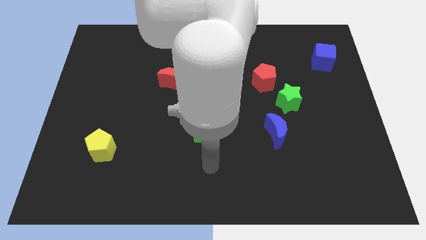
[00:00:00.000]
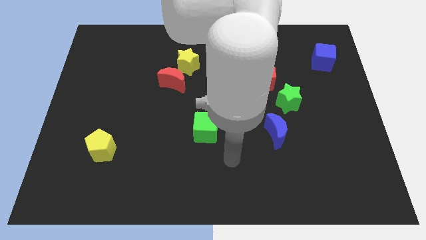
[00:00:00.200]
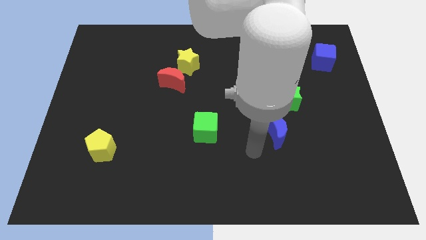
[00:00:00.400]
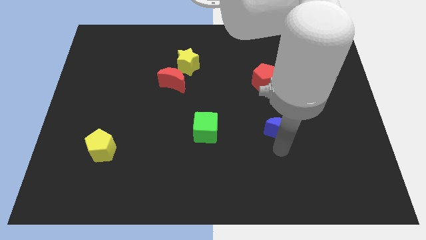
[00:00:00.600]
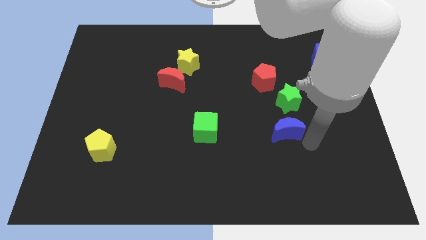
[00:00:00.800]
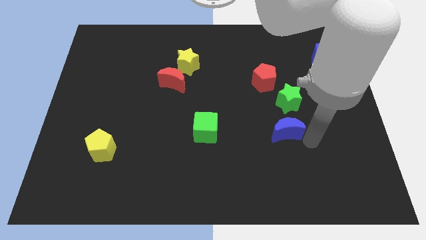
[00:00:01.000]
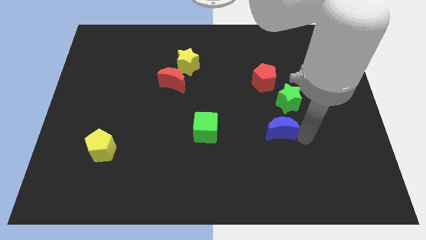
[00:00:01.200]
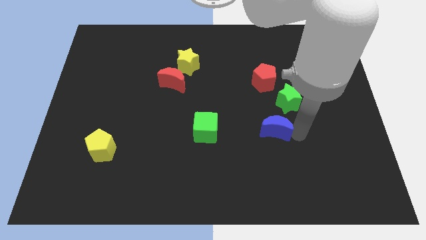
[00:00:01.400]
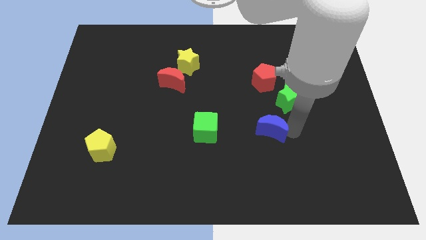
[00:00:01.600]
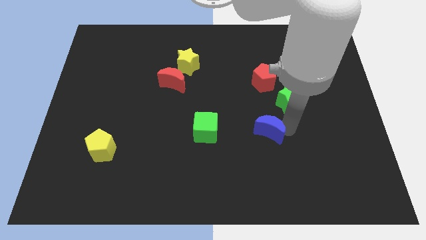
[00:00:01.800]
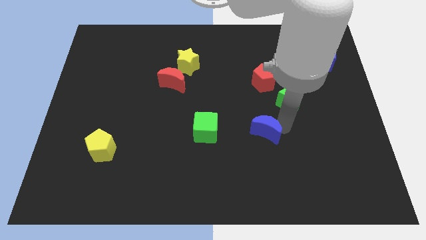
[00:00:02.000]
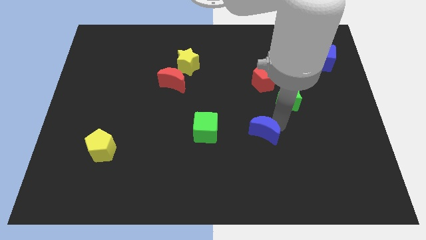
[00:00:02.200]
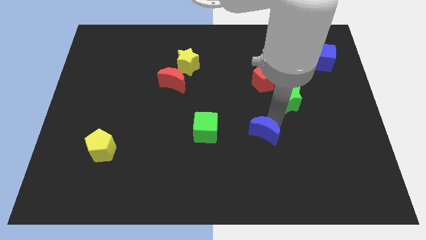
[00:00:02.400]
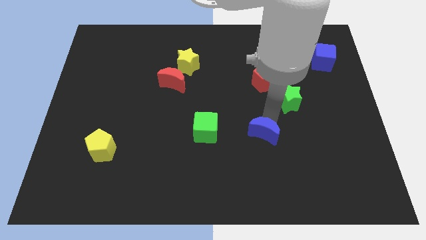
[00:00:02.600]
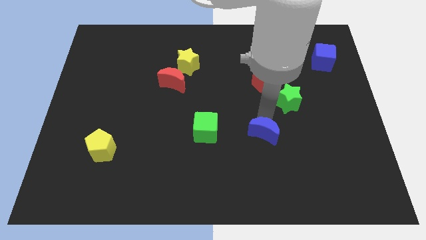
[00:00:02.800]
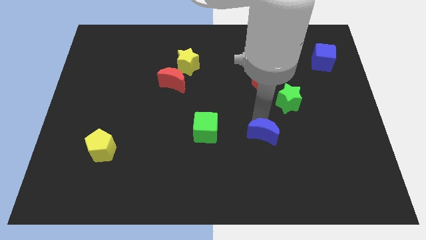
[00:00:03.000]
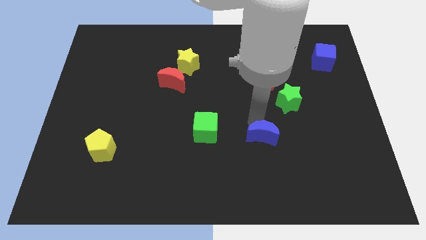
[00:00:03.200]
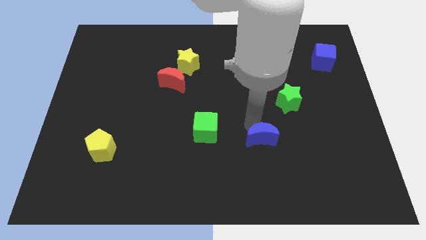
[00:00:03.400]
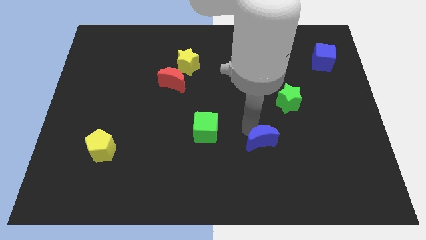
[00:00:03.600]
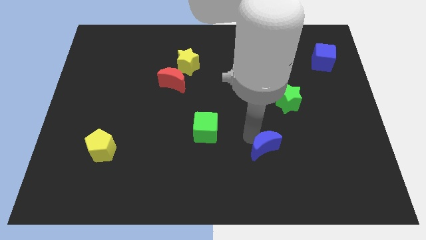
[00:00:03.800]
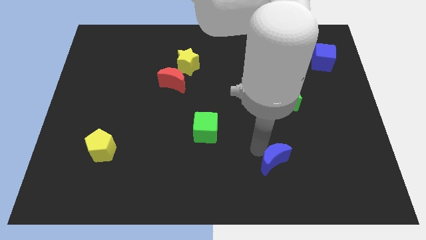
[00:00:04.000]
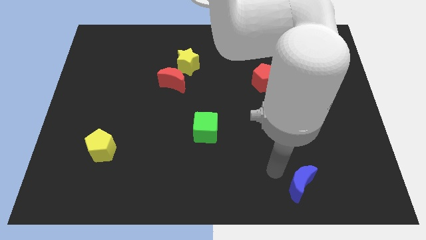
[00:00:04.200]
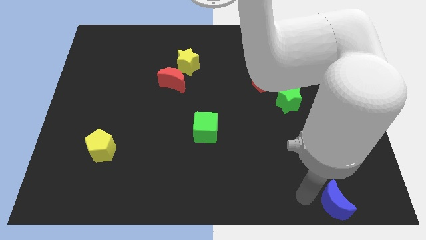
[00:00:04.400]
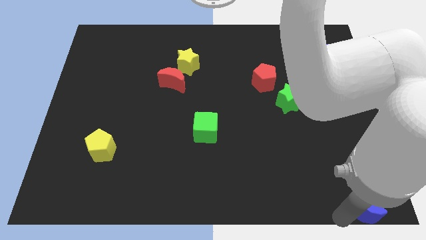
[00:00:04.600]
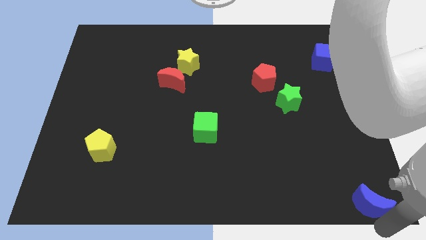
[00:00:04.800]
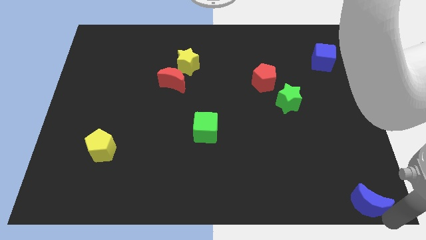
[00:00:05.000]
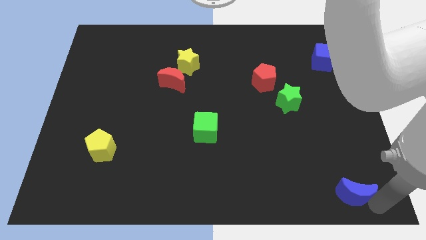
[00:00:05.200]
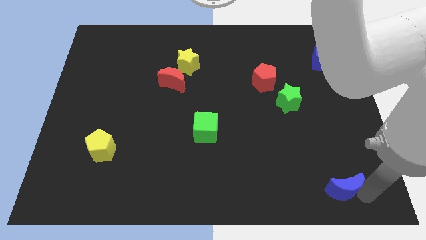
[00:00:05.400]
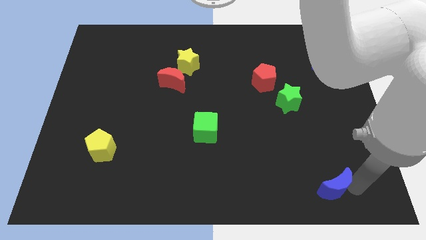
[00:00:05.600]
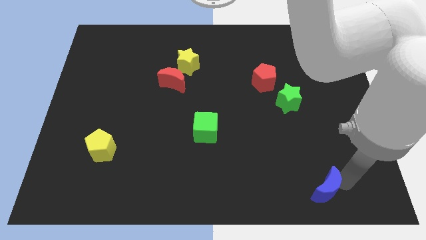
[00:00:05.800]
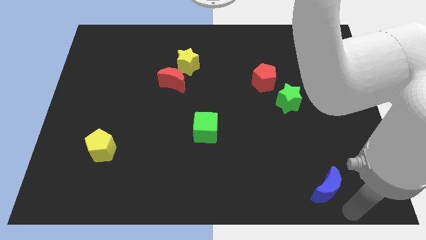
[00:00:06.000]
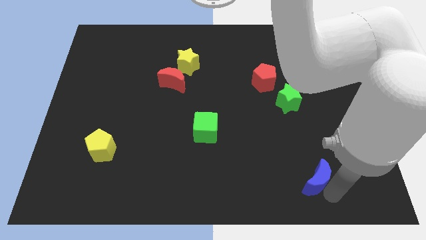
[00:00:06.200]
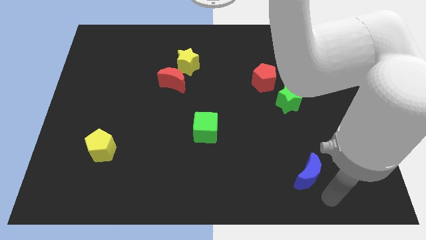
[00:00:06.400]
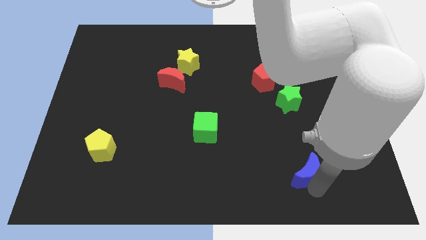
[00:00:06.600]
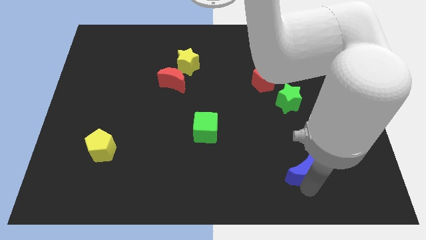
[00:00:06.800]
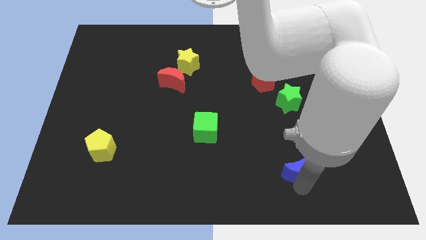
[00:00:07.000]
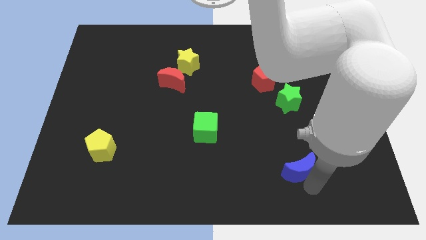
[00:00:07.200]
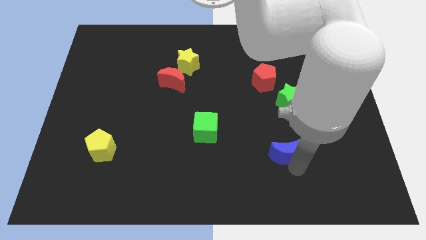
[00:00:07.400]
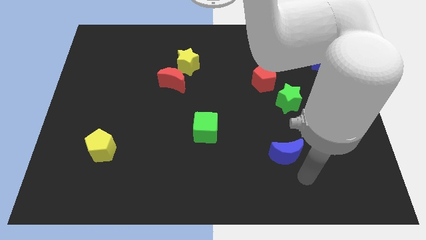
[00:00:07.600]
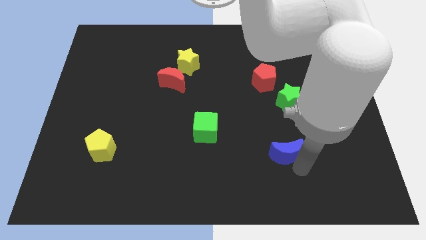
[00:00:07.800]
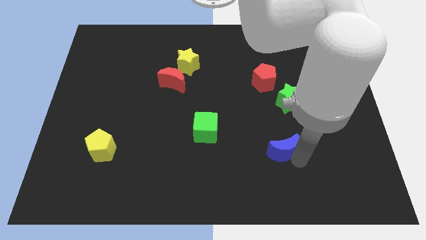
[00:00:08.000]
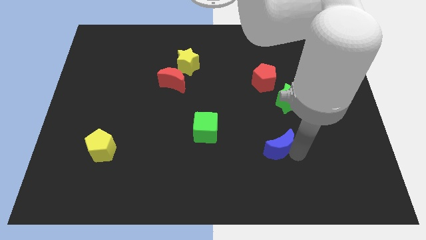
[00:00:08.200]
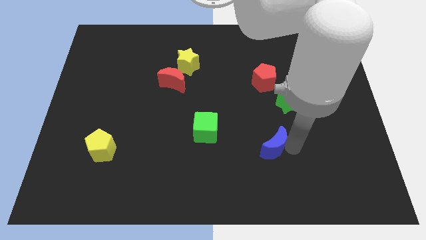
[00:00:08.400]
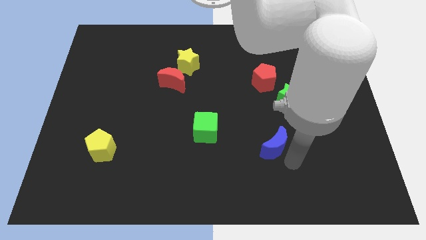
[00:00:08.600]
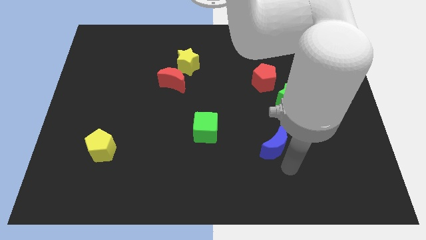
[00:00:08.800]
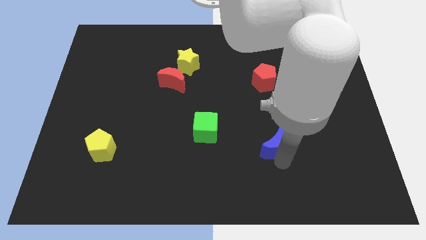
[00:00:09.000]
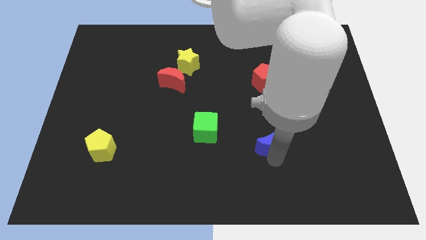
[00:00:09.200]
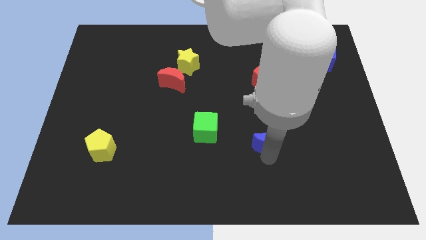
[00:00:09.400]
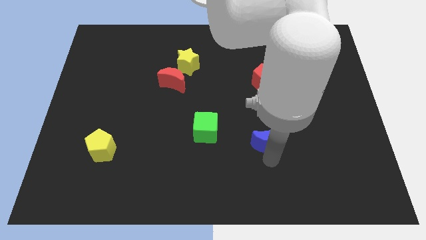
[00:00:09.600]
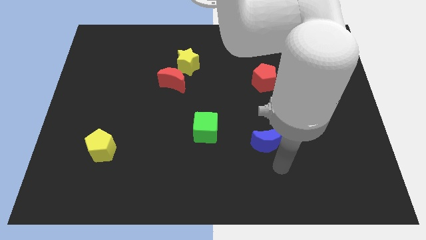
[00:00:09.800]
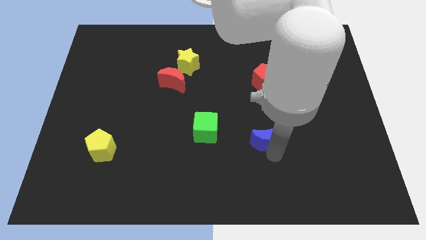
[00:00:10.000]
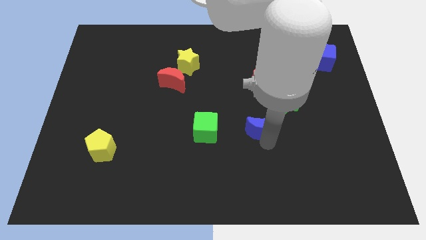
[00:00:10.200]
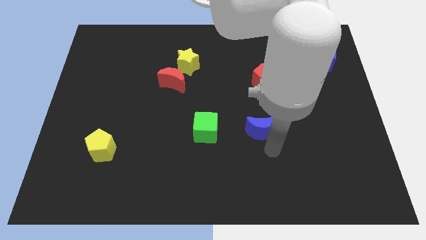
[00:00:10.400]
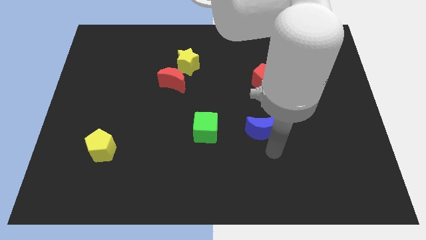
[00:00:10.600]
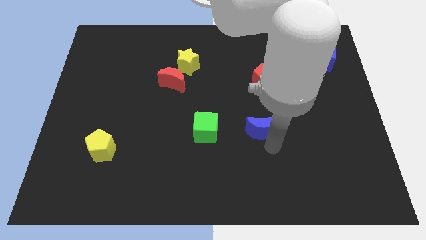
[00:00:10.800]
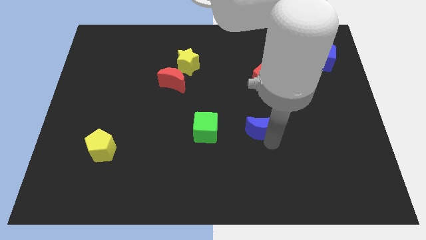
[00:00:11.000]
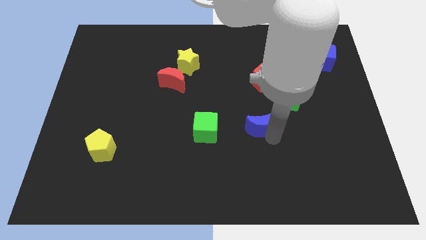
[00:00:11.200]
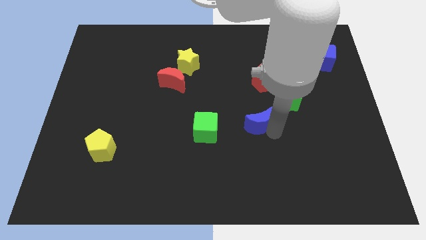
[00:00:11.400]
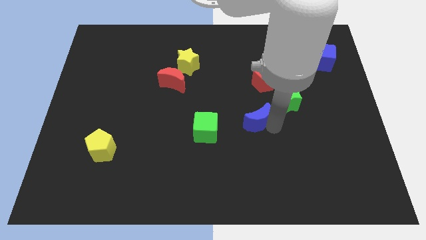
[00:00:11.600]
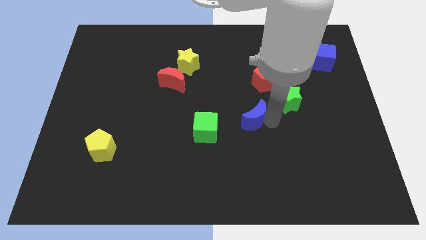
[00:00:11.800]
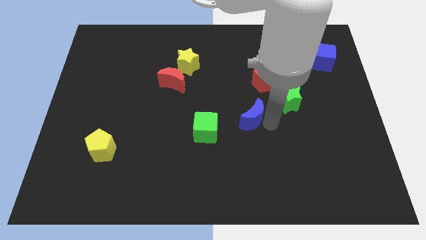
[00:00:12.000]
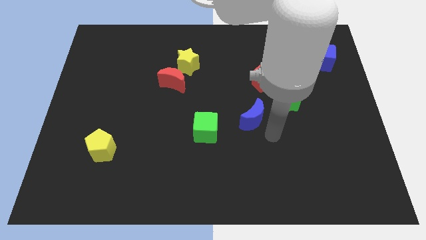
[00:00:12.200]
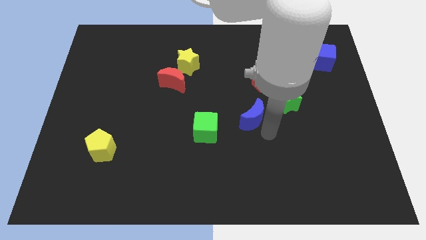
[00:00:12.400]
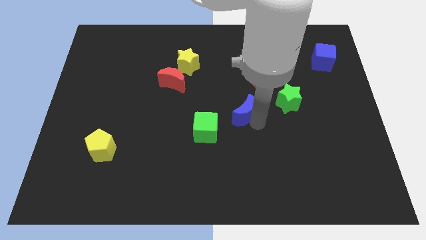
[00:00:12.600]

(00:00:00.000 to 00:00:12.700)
move the blue moon upwards and to the left a bit

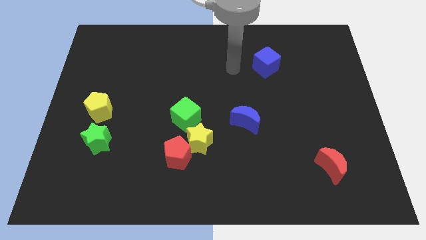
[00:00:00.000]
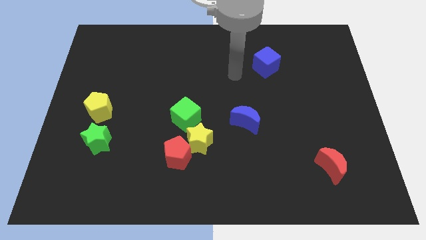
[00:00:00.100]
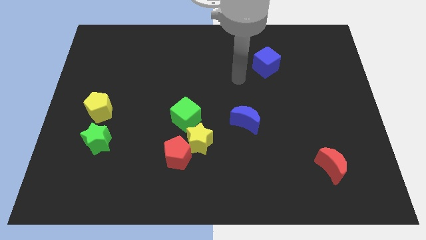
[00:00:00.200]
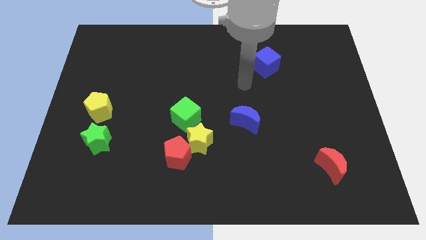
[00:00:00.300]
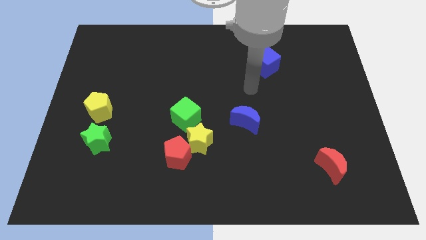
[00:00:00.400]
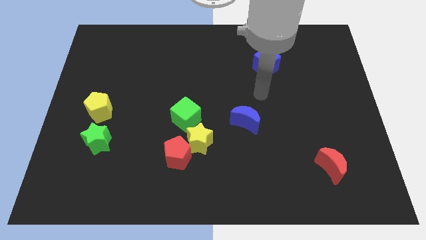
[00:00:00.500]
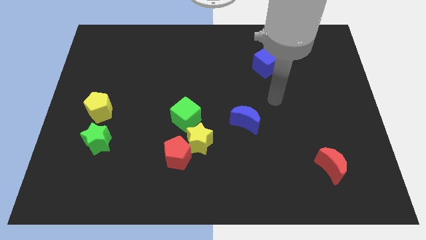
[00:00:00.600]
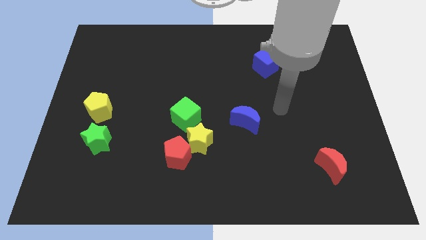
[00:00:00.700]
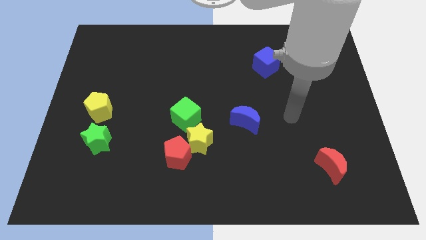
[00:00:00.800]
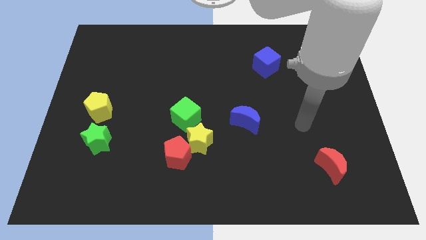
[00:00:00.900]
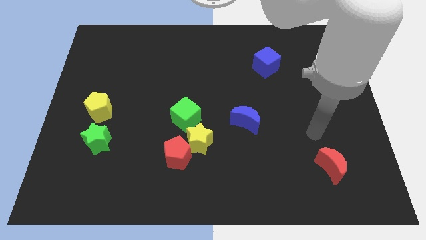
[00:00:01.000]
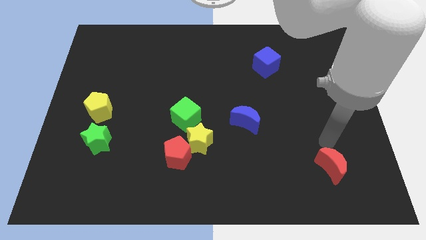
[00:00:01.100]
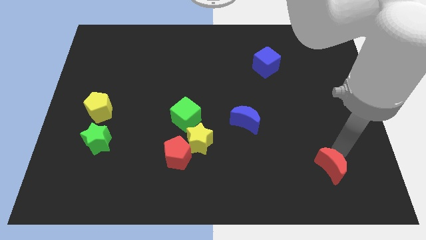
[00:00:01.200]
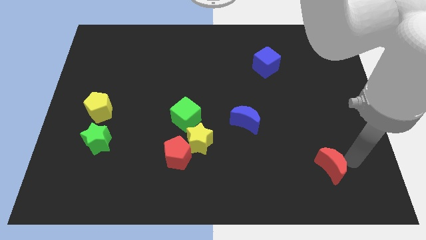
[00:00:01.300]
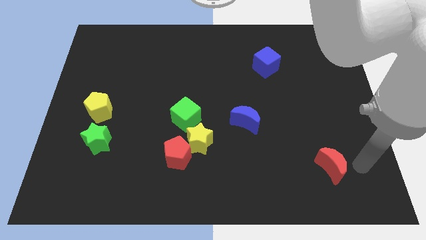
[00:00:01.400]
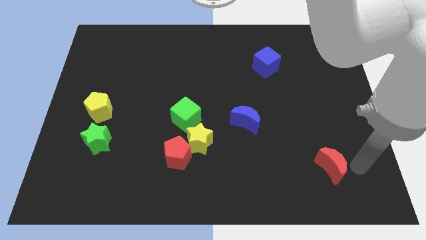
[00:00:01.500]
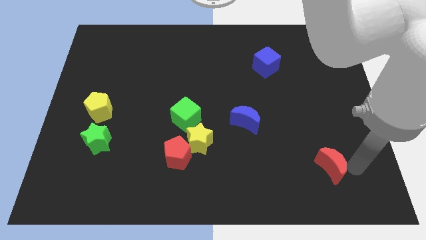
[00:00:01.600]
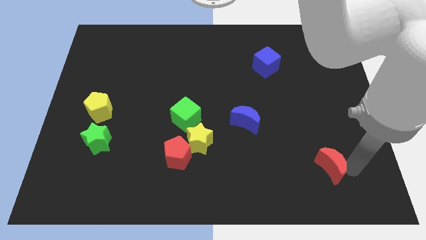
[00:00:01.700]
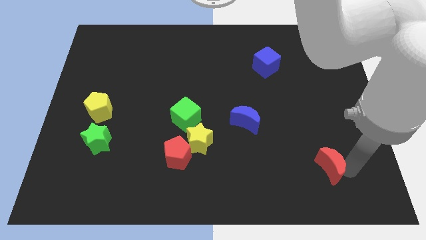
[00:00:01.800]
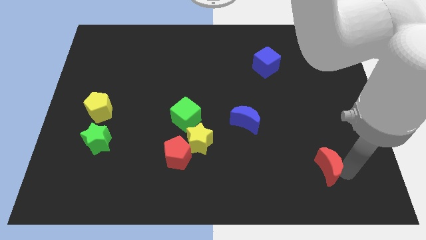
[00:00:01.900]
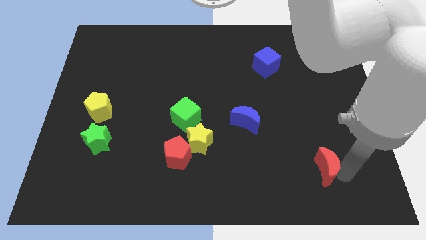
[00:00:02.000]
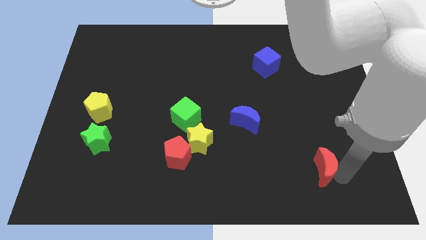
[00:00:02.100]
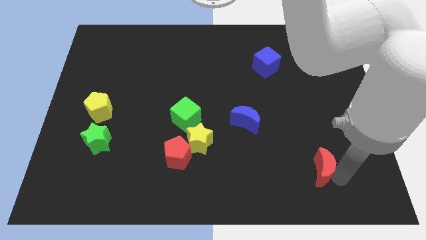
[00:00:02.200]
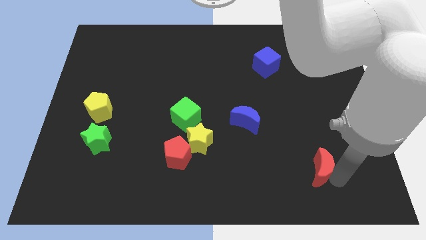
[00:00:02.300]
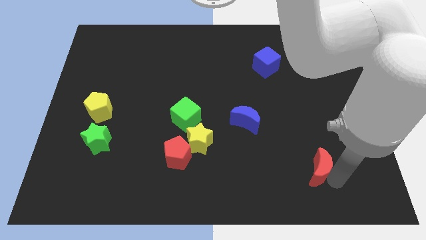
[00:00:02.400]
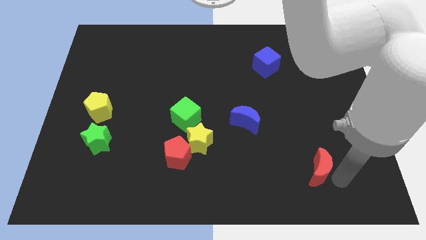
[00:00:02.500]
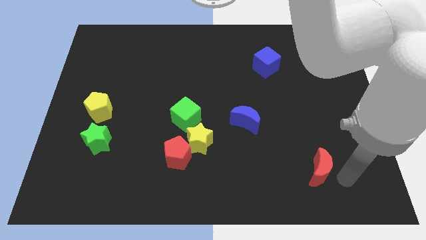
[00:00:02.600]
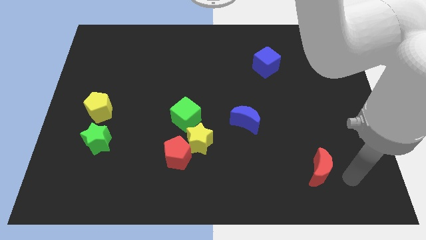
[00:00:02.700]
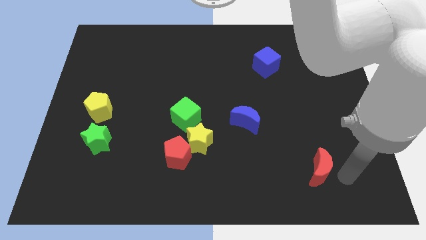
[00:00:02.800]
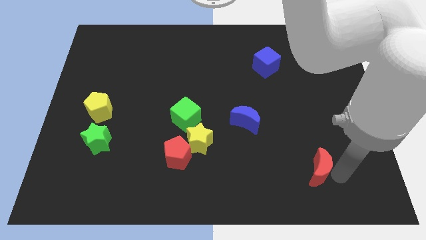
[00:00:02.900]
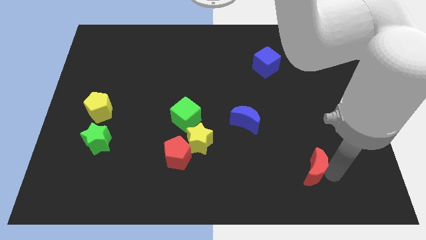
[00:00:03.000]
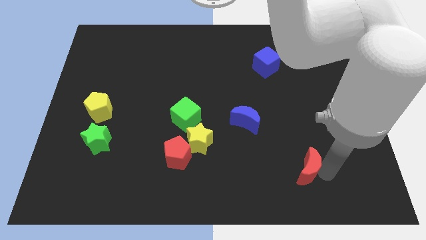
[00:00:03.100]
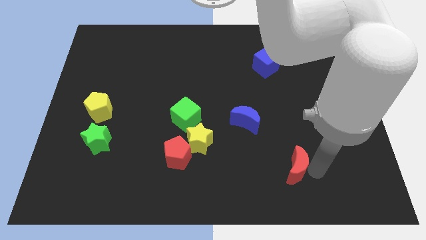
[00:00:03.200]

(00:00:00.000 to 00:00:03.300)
push the red moon slightly to the left
